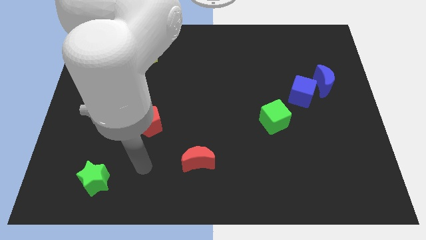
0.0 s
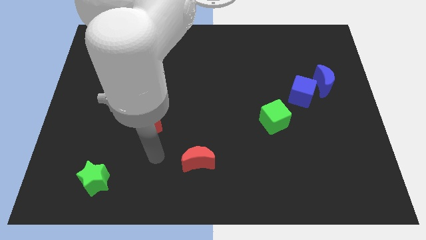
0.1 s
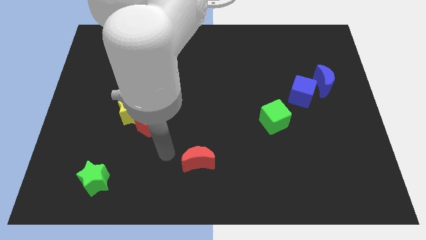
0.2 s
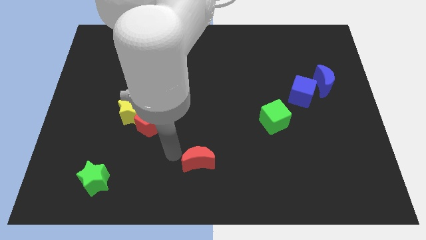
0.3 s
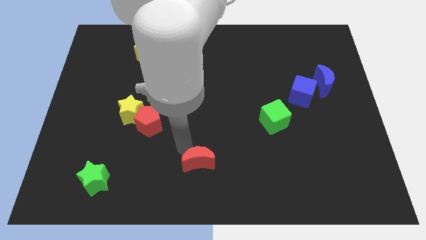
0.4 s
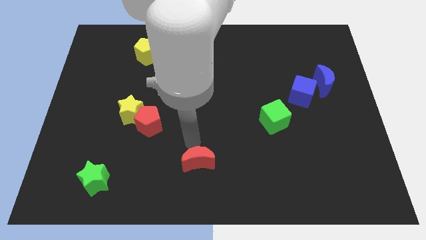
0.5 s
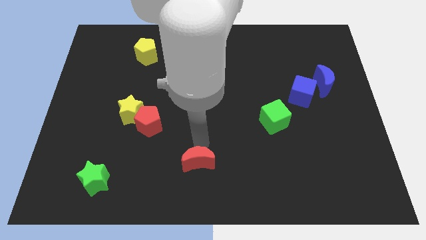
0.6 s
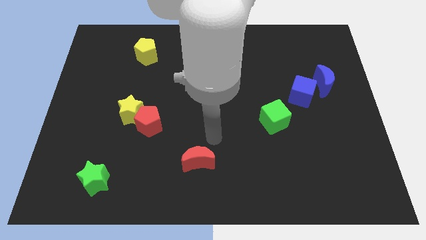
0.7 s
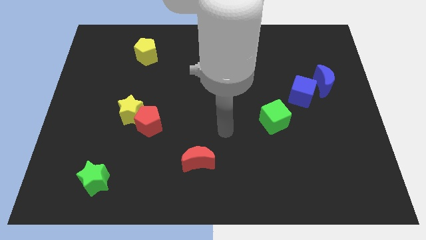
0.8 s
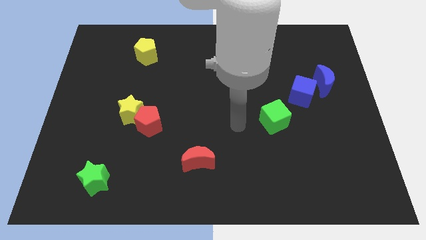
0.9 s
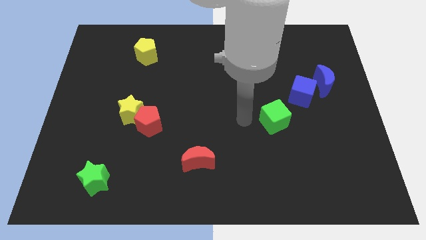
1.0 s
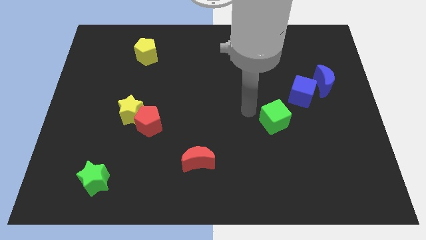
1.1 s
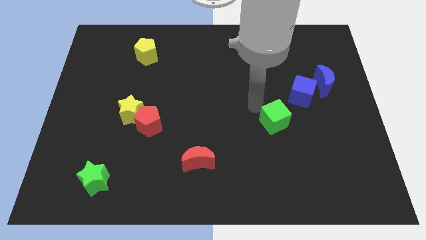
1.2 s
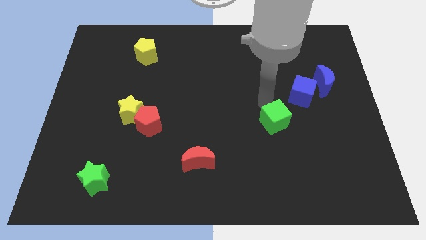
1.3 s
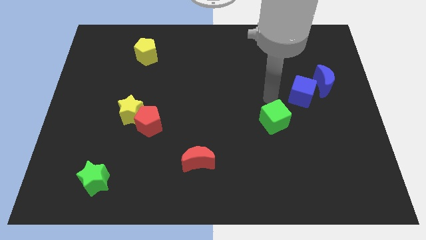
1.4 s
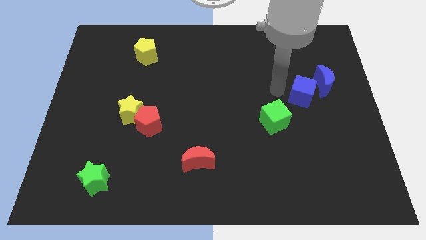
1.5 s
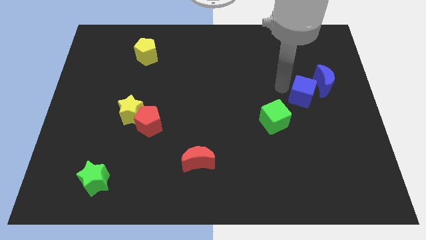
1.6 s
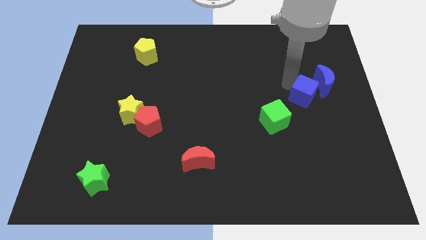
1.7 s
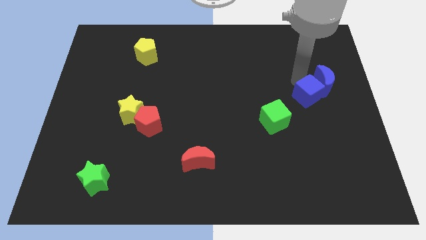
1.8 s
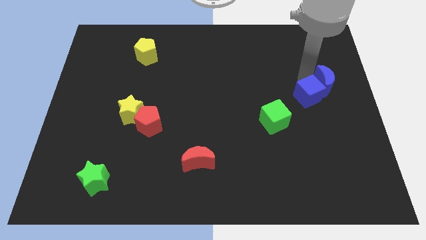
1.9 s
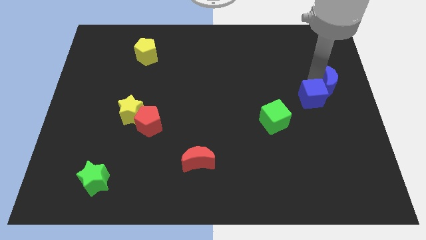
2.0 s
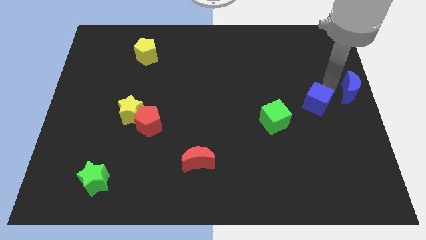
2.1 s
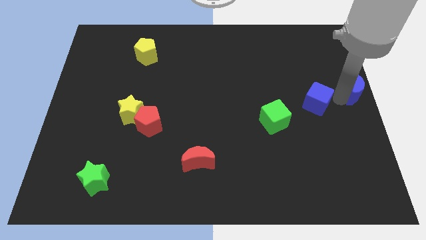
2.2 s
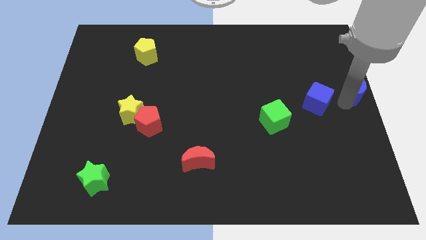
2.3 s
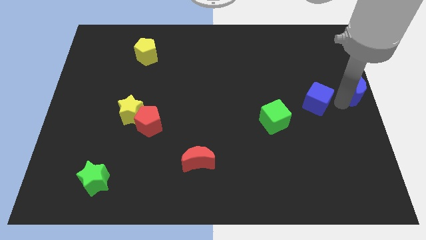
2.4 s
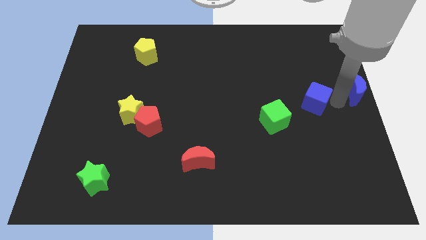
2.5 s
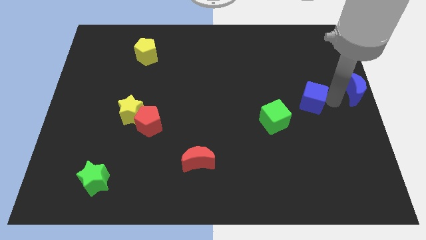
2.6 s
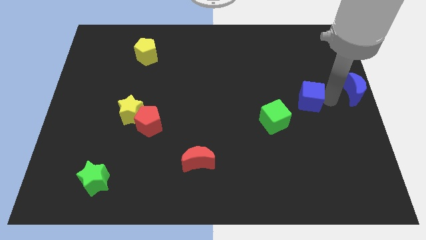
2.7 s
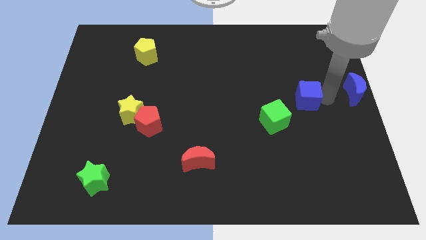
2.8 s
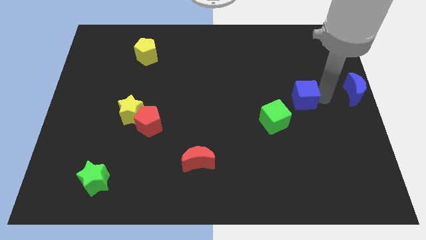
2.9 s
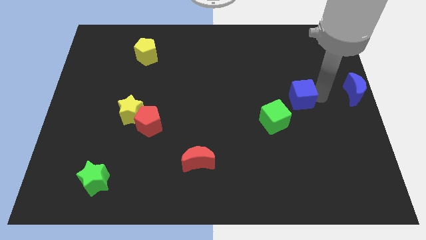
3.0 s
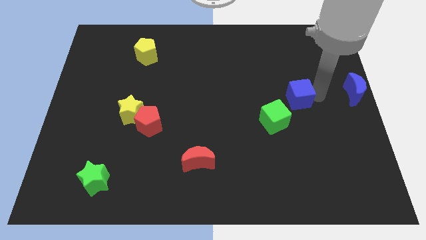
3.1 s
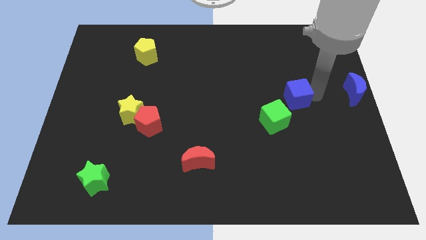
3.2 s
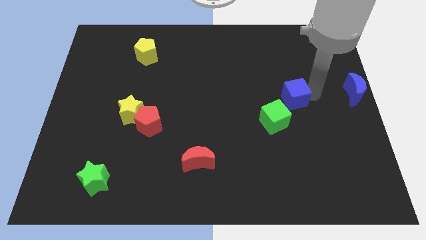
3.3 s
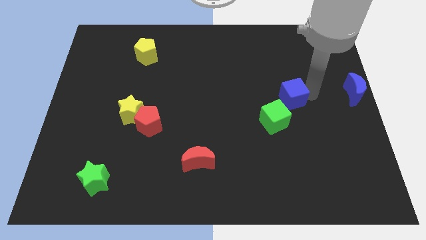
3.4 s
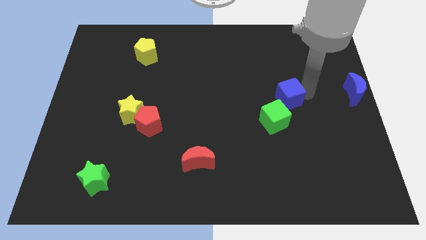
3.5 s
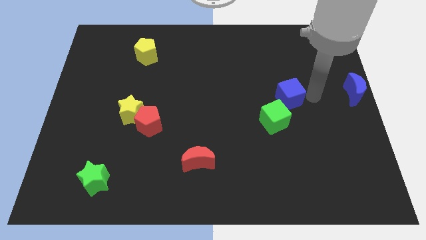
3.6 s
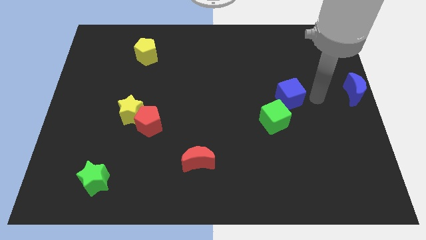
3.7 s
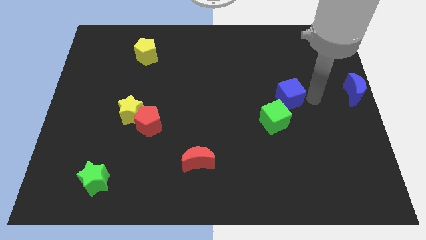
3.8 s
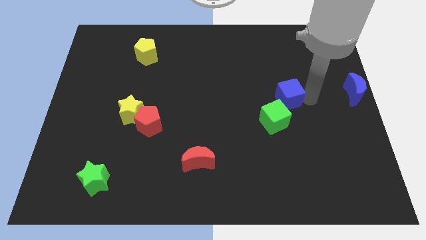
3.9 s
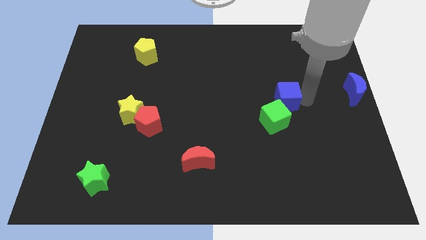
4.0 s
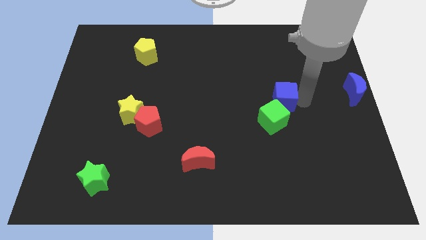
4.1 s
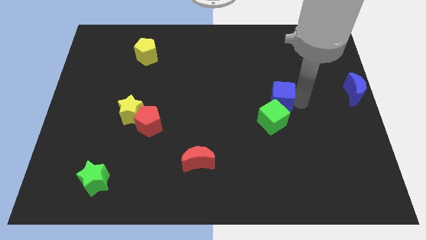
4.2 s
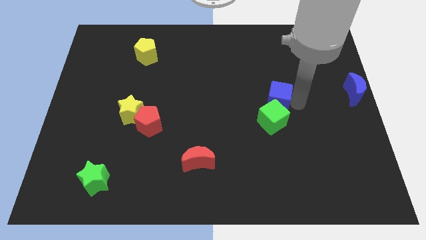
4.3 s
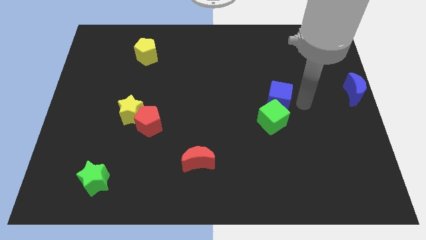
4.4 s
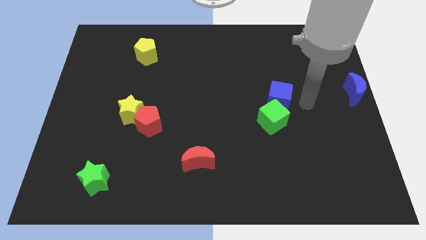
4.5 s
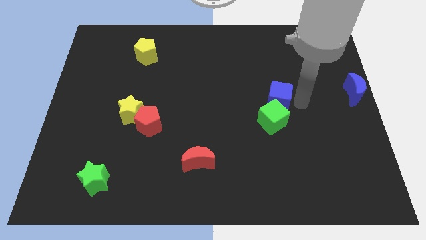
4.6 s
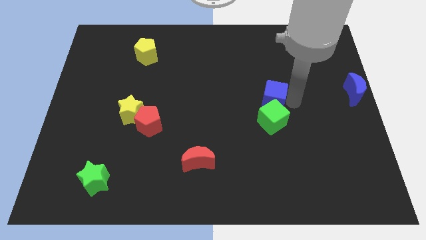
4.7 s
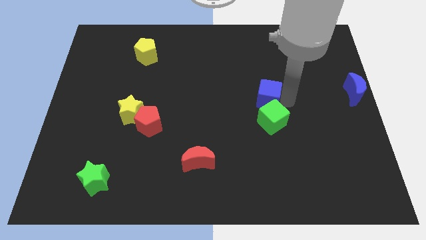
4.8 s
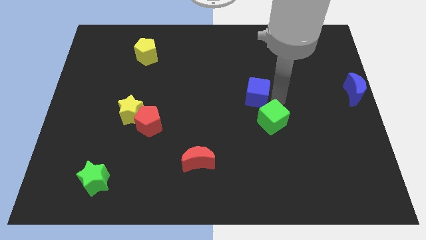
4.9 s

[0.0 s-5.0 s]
put the blue cube to the center

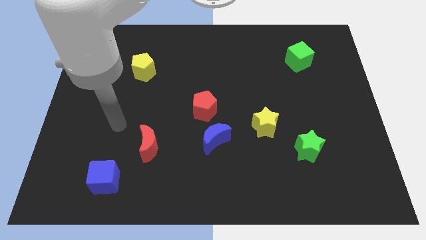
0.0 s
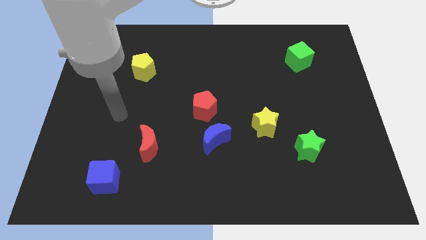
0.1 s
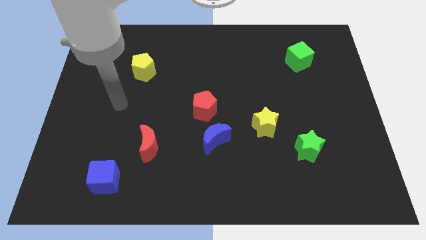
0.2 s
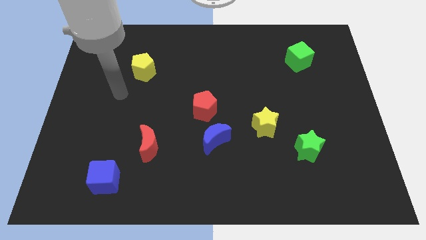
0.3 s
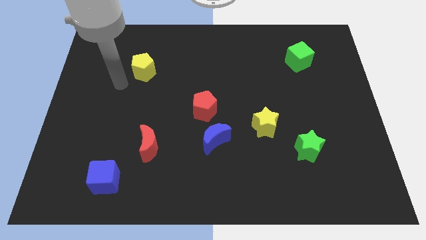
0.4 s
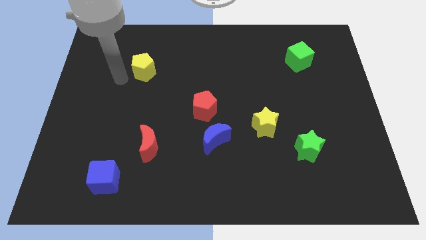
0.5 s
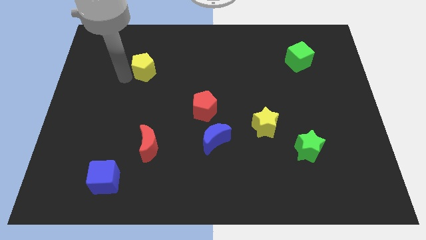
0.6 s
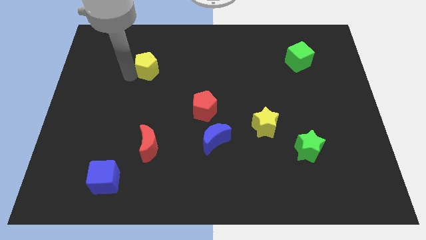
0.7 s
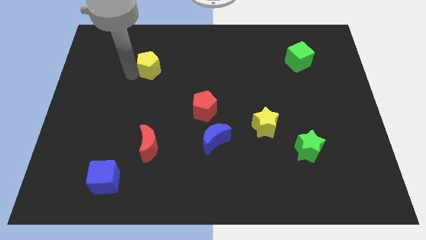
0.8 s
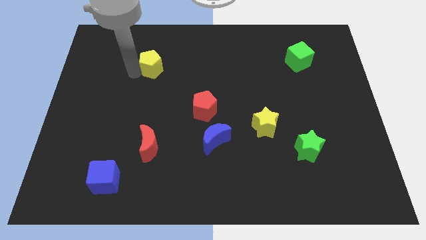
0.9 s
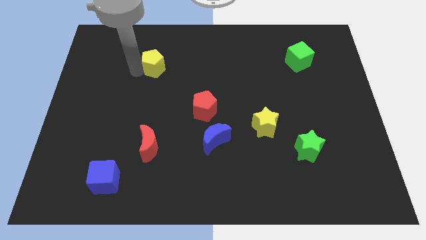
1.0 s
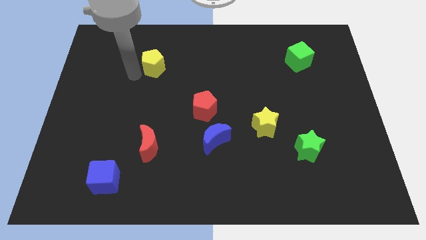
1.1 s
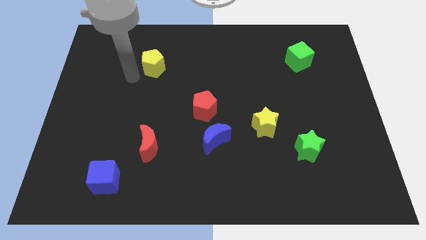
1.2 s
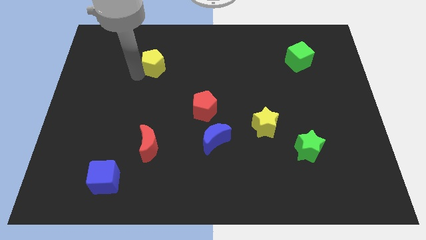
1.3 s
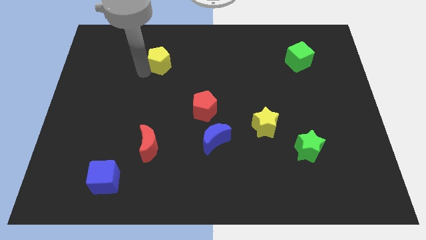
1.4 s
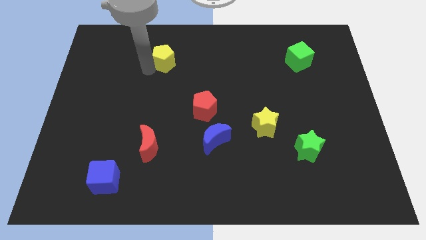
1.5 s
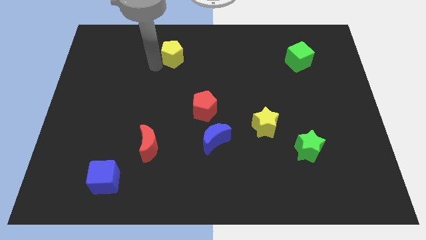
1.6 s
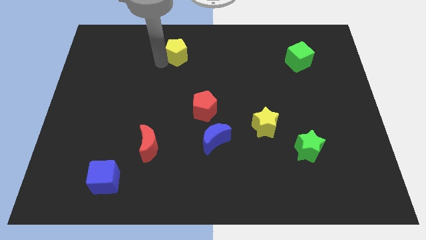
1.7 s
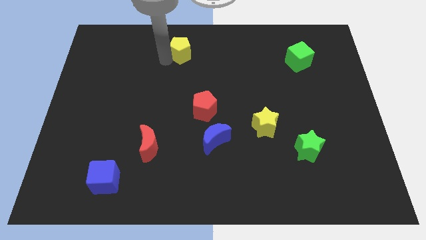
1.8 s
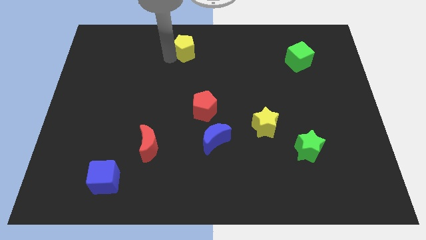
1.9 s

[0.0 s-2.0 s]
push the yellow pentagon to the towards your base
